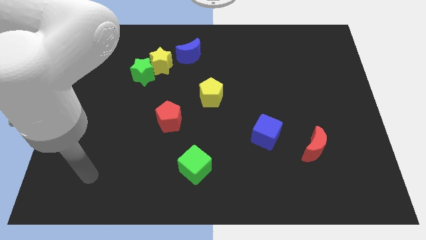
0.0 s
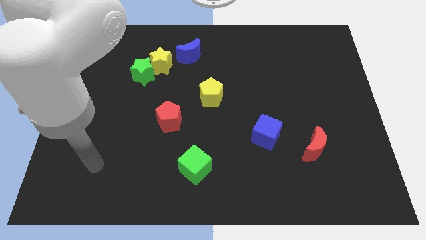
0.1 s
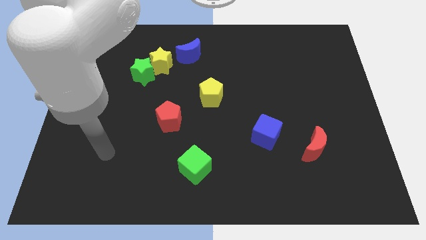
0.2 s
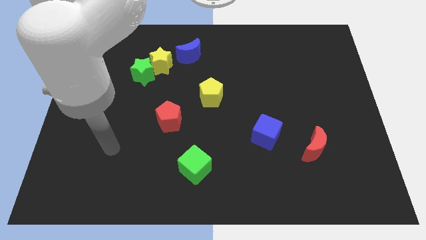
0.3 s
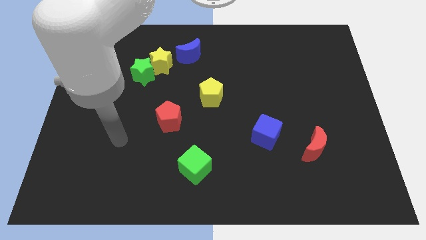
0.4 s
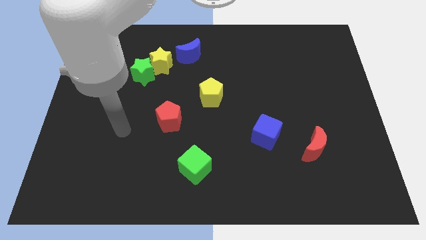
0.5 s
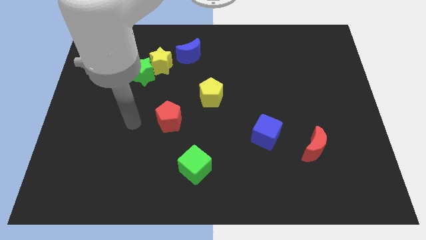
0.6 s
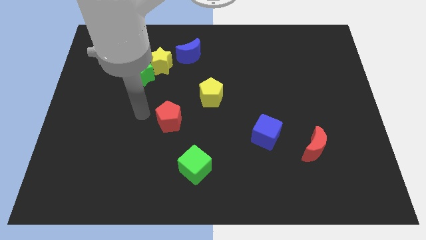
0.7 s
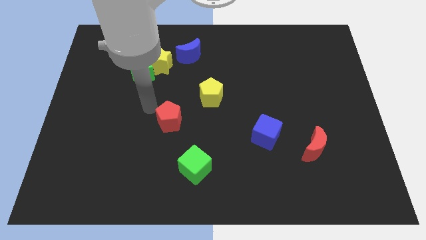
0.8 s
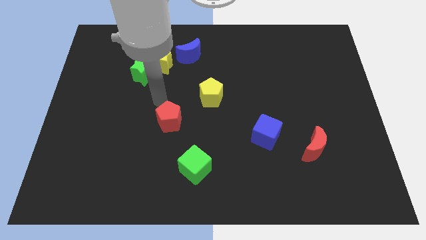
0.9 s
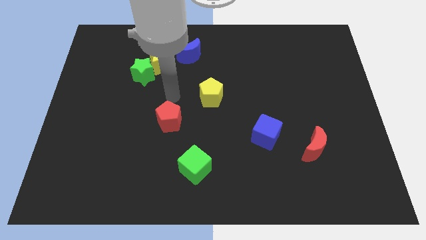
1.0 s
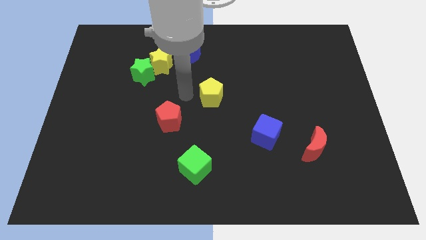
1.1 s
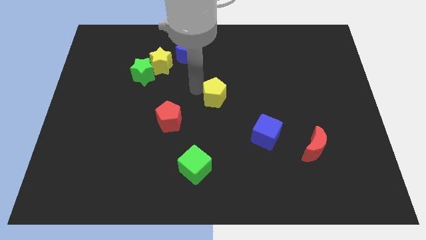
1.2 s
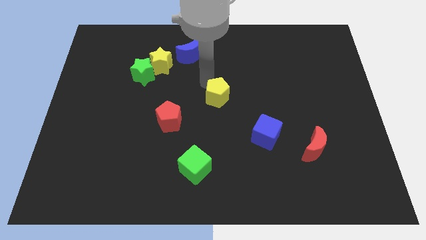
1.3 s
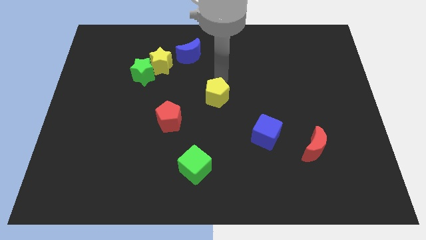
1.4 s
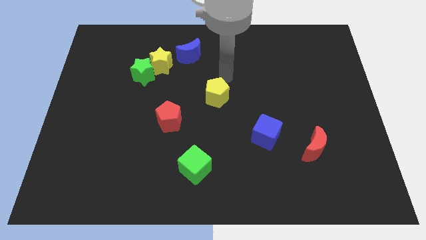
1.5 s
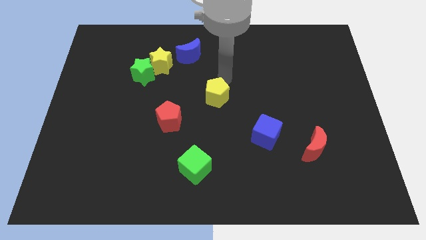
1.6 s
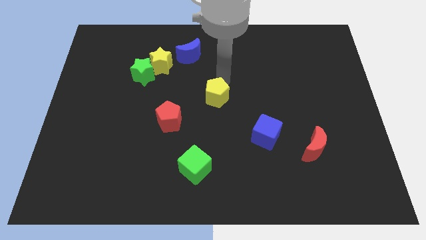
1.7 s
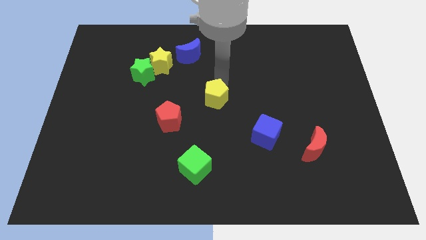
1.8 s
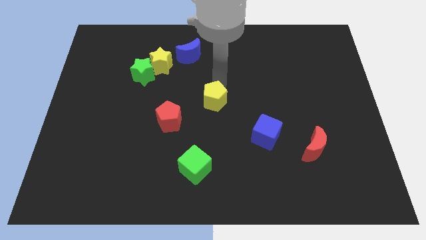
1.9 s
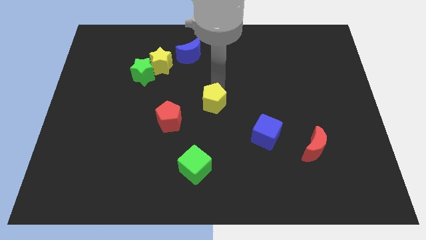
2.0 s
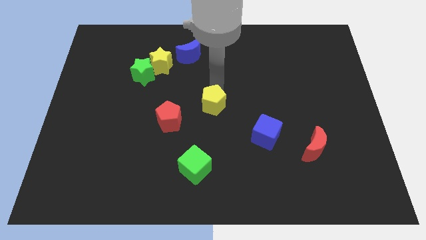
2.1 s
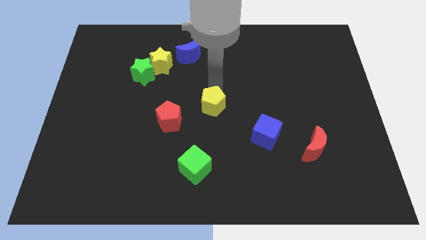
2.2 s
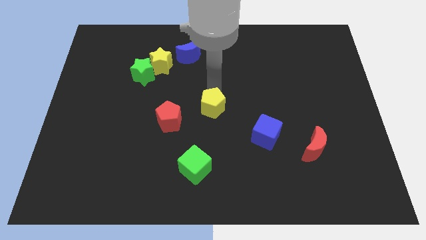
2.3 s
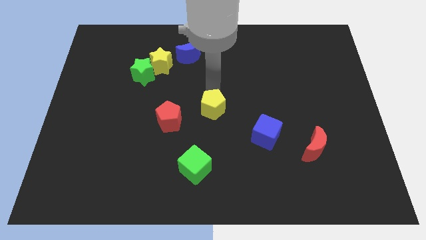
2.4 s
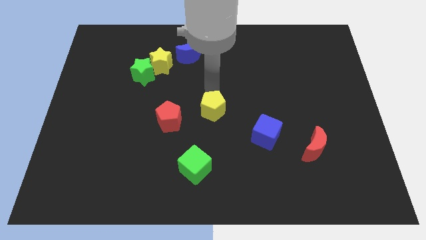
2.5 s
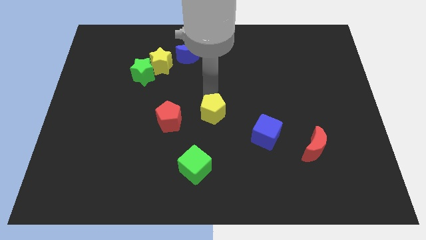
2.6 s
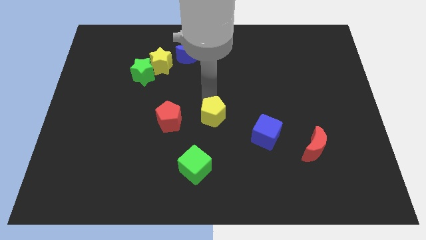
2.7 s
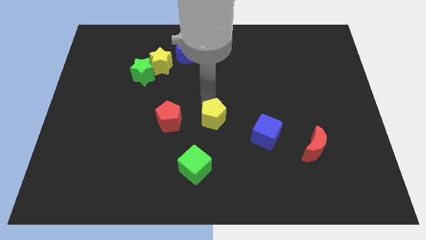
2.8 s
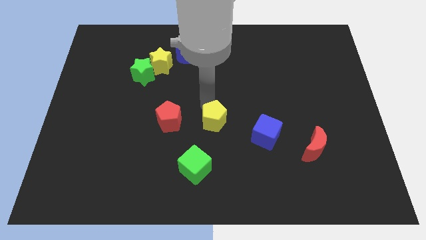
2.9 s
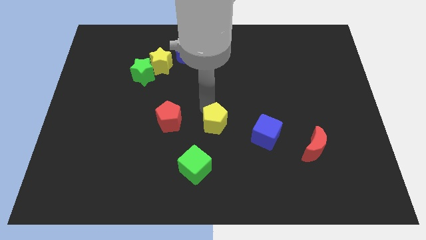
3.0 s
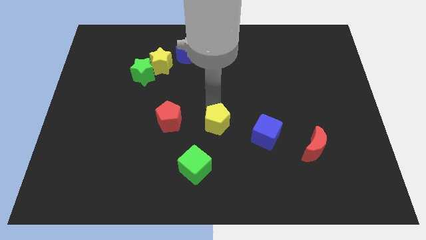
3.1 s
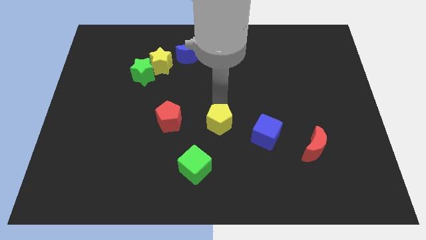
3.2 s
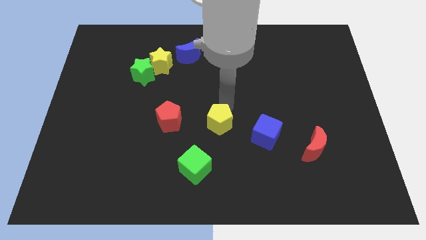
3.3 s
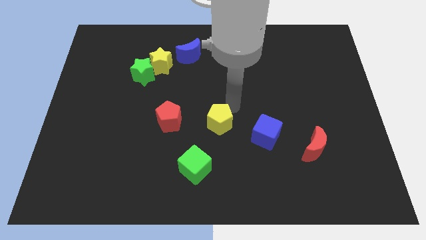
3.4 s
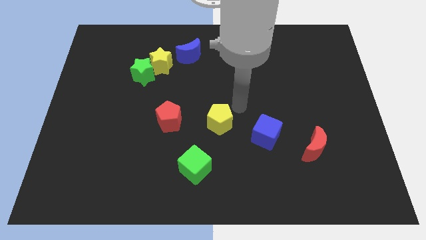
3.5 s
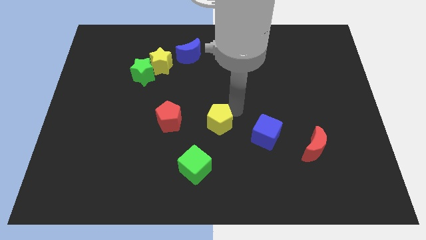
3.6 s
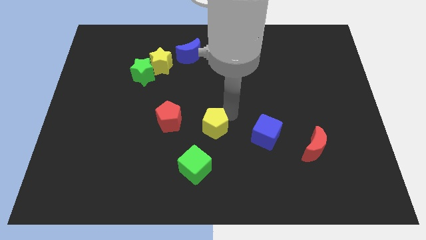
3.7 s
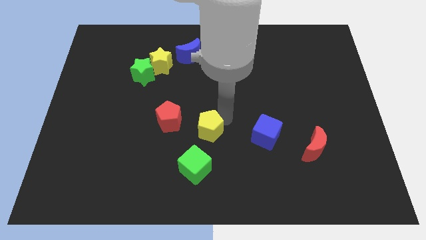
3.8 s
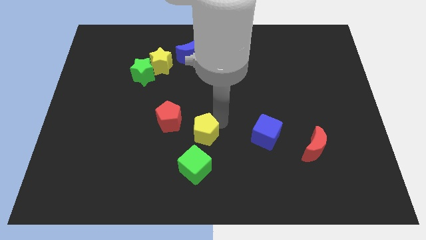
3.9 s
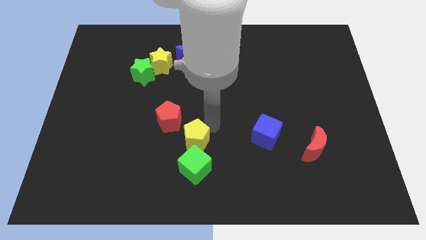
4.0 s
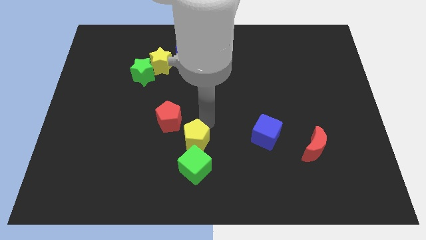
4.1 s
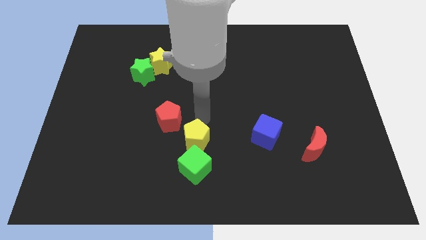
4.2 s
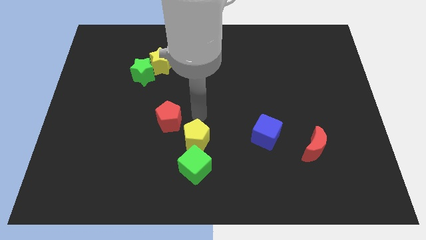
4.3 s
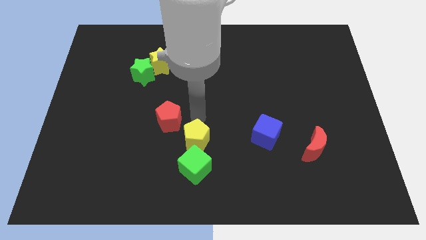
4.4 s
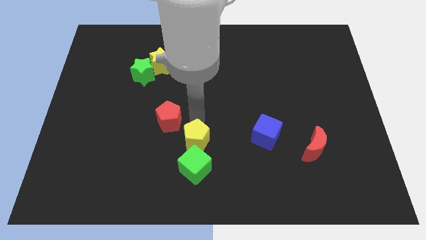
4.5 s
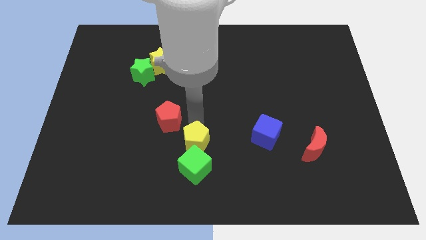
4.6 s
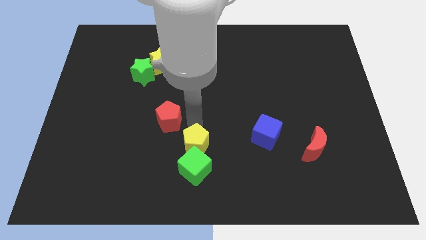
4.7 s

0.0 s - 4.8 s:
put the yellow pentagon towards the green cube
